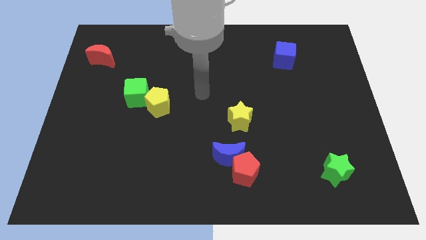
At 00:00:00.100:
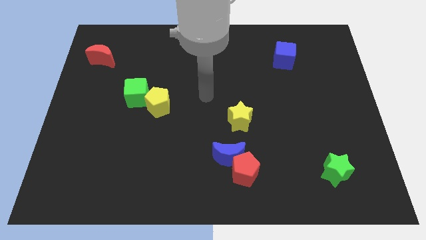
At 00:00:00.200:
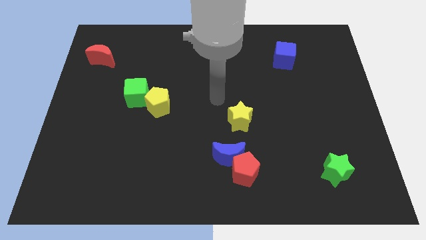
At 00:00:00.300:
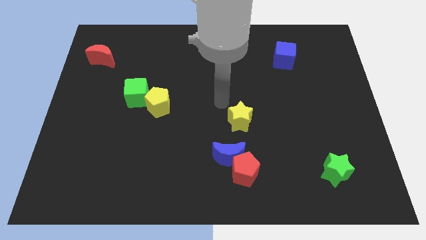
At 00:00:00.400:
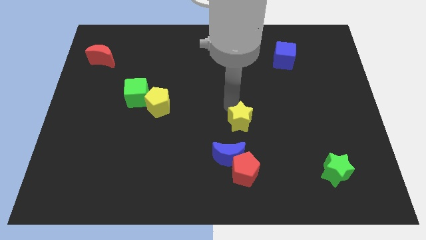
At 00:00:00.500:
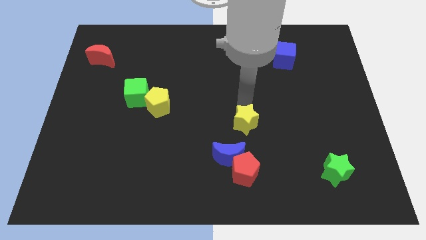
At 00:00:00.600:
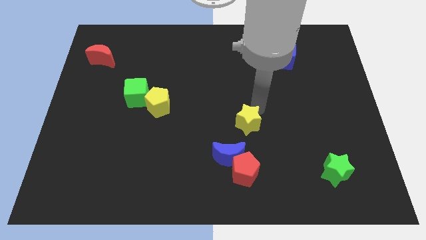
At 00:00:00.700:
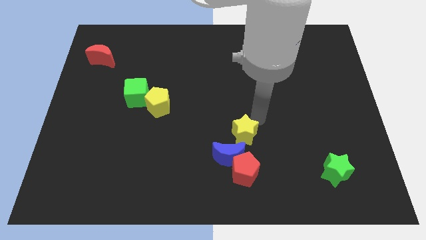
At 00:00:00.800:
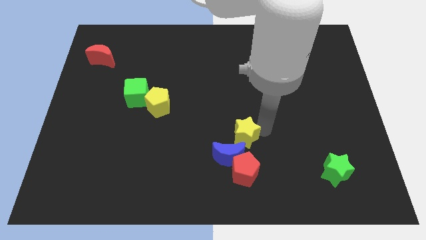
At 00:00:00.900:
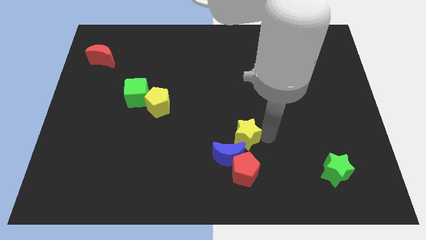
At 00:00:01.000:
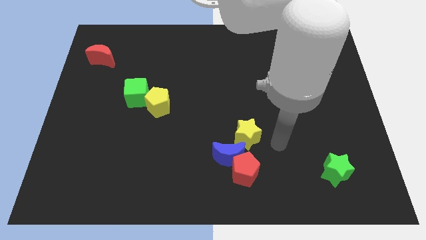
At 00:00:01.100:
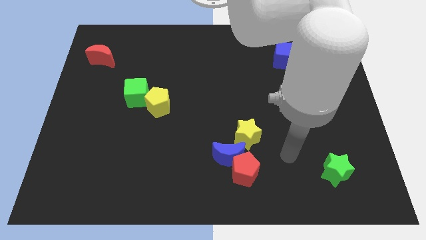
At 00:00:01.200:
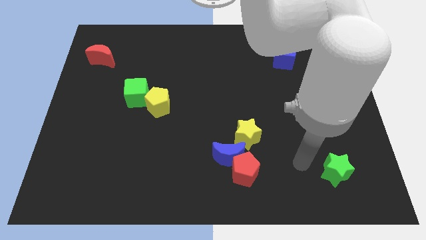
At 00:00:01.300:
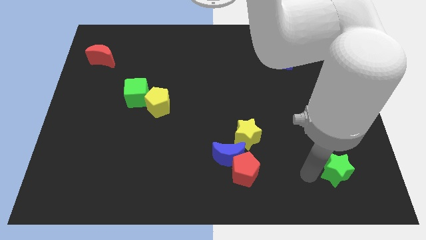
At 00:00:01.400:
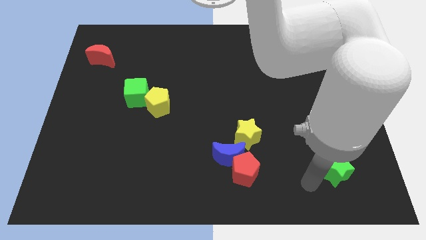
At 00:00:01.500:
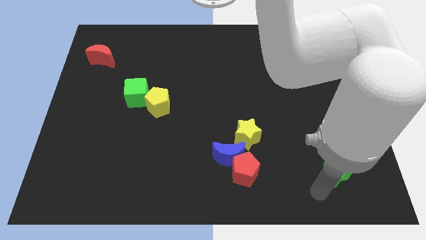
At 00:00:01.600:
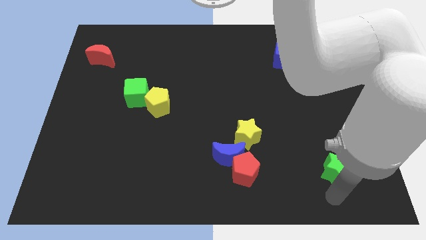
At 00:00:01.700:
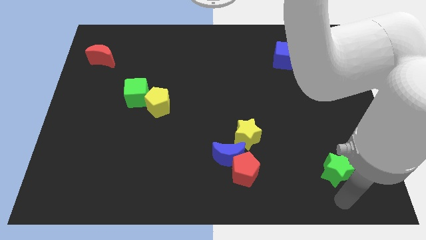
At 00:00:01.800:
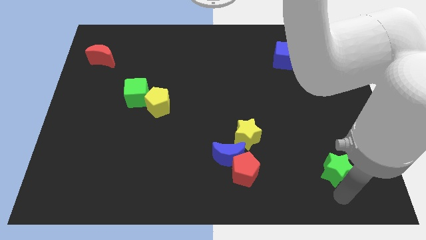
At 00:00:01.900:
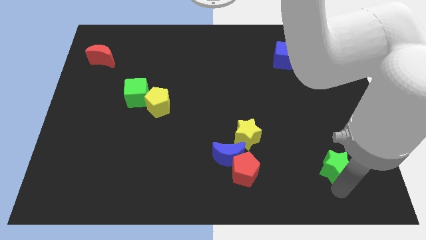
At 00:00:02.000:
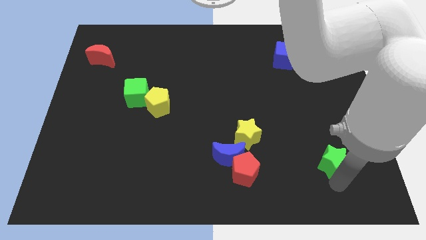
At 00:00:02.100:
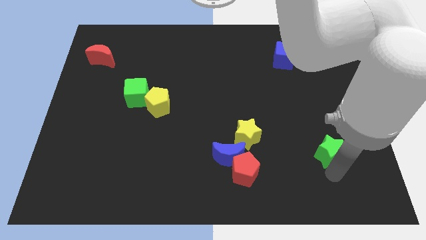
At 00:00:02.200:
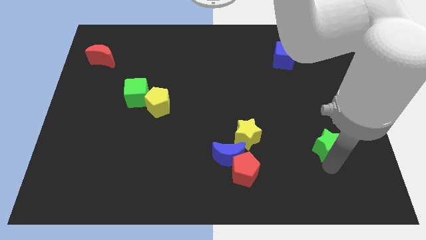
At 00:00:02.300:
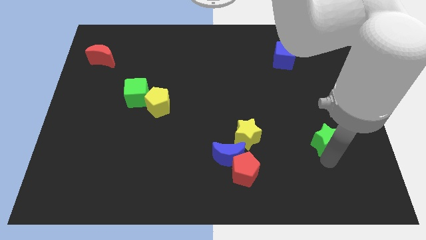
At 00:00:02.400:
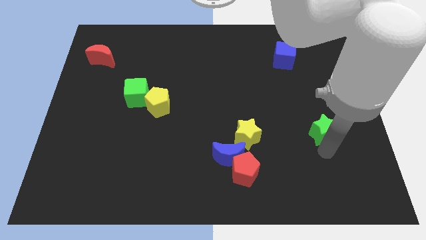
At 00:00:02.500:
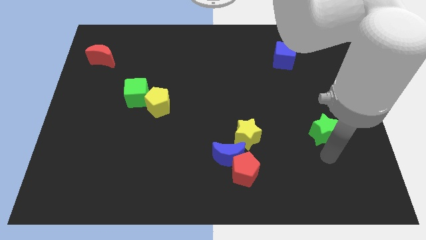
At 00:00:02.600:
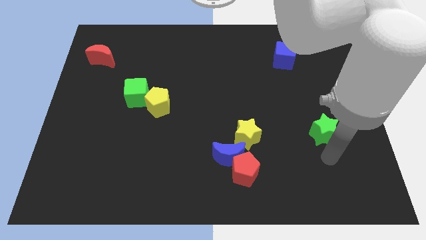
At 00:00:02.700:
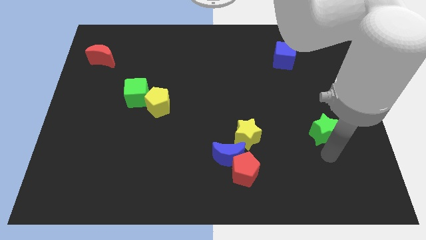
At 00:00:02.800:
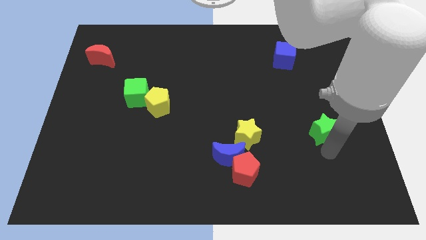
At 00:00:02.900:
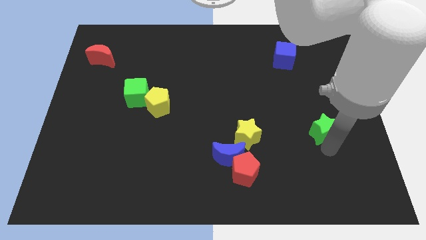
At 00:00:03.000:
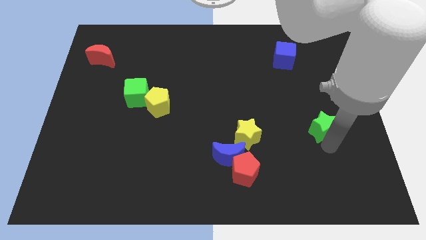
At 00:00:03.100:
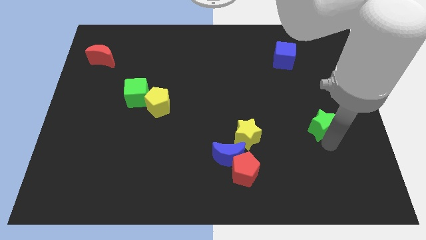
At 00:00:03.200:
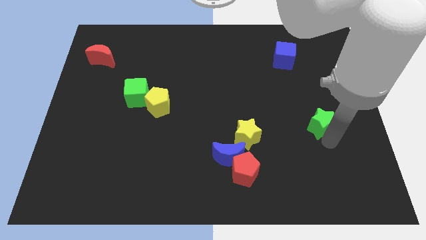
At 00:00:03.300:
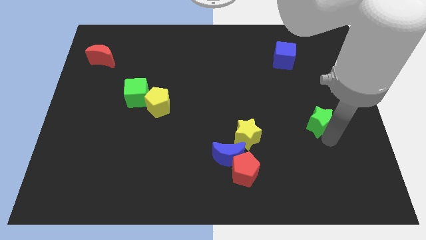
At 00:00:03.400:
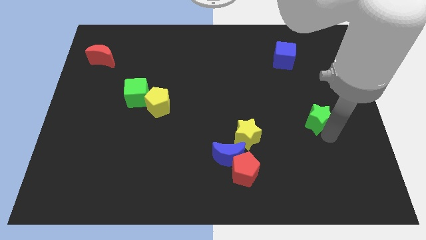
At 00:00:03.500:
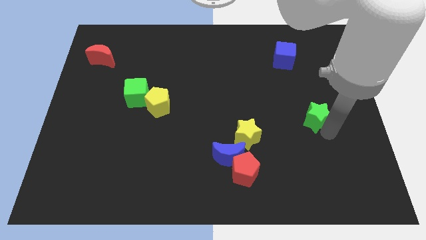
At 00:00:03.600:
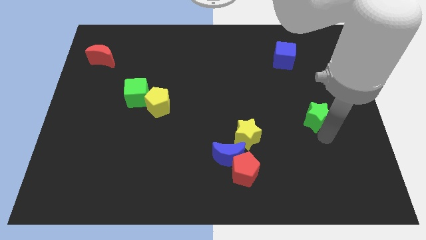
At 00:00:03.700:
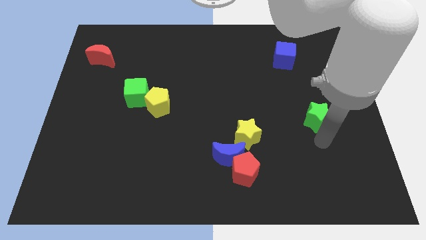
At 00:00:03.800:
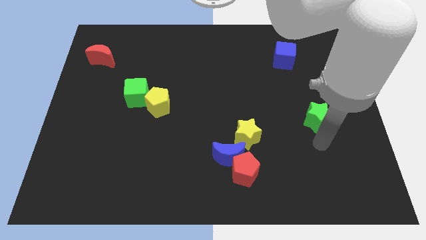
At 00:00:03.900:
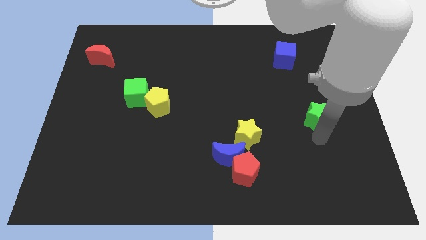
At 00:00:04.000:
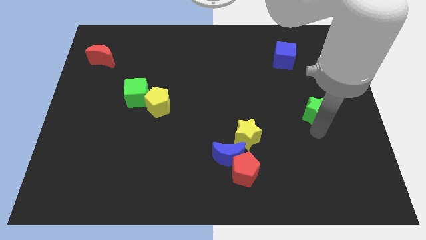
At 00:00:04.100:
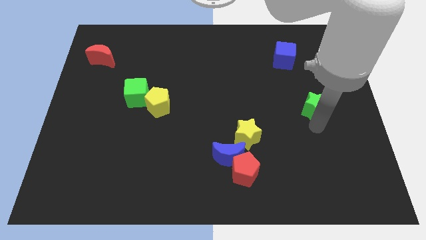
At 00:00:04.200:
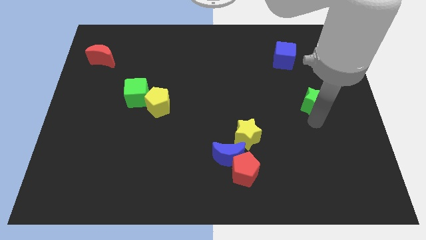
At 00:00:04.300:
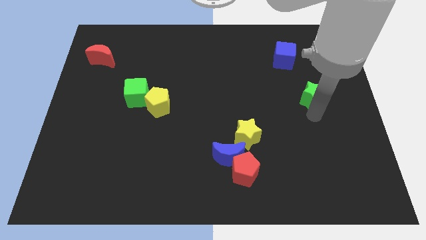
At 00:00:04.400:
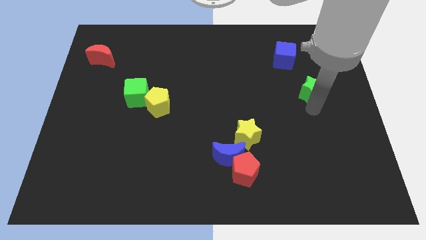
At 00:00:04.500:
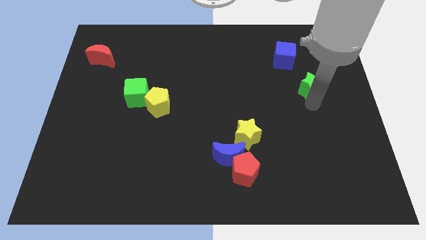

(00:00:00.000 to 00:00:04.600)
move the green star diagonally down and to the right of the blue cube

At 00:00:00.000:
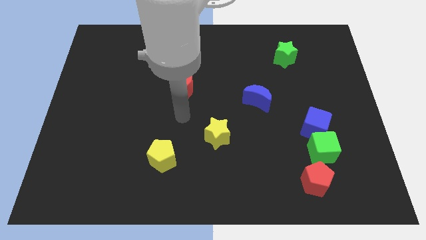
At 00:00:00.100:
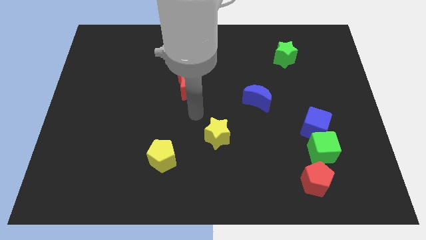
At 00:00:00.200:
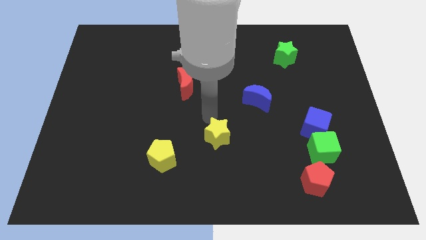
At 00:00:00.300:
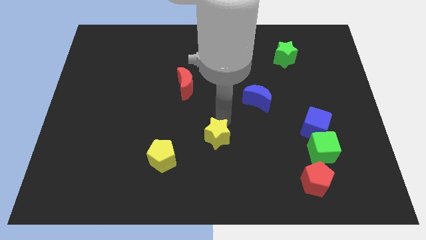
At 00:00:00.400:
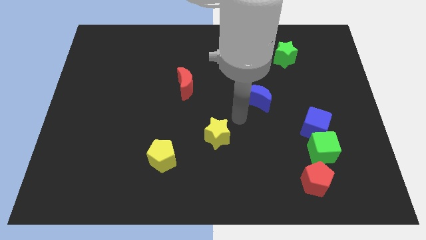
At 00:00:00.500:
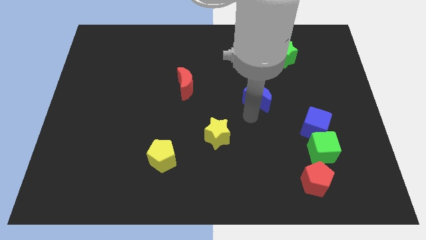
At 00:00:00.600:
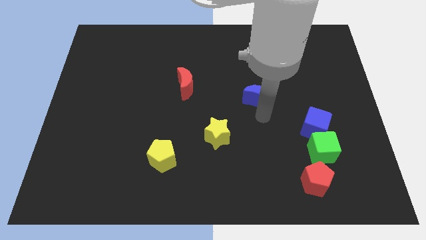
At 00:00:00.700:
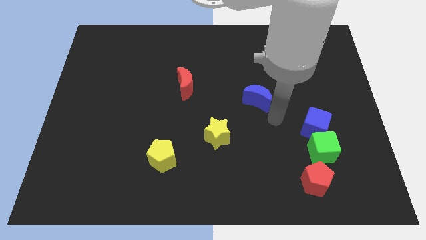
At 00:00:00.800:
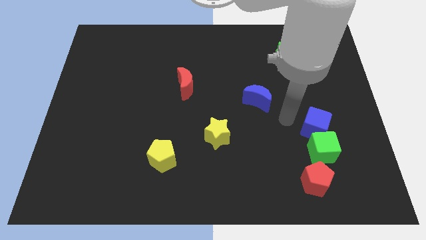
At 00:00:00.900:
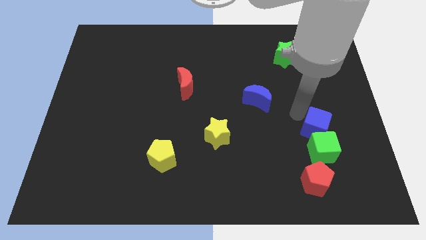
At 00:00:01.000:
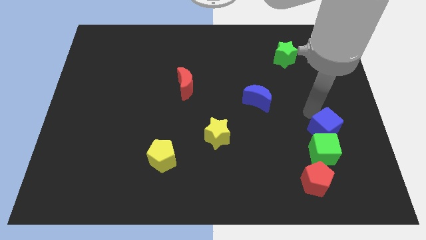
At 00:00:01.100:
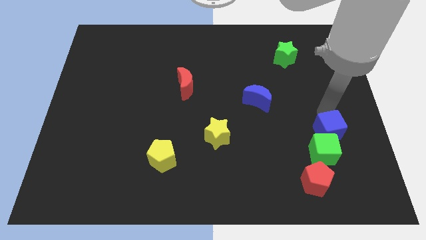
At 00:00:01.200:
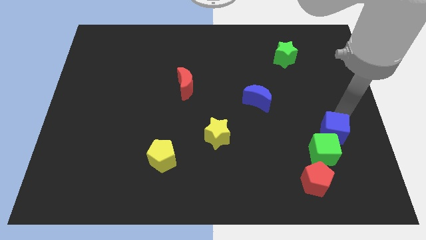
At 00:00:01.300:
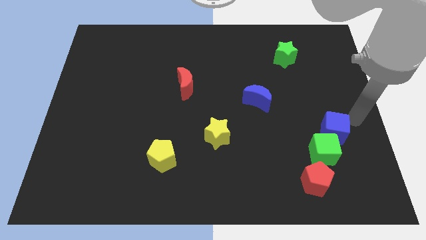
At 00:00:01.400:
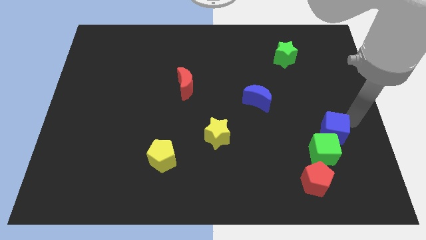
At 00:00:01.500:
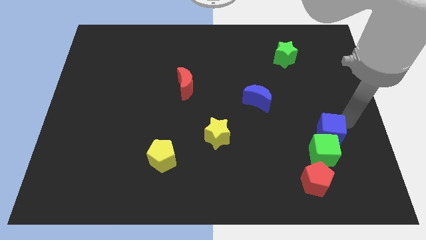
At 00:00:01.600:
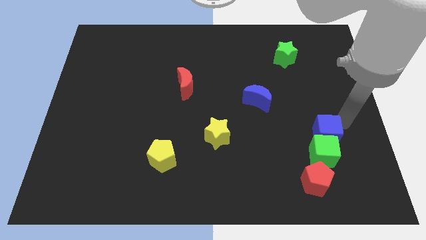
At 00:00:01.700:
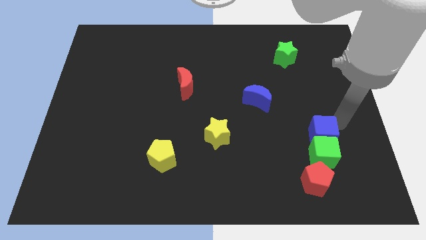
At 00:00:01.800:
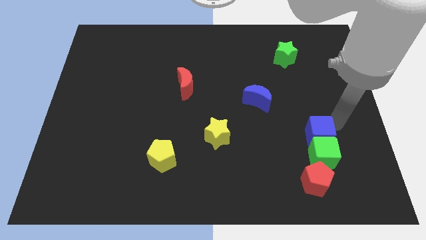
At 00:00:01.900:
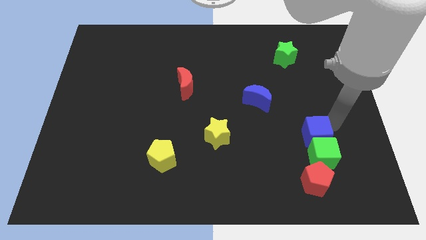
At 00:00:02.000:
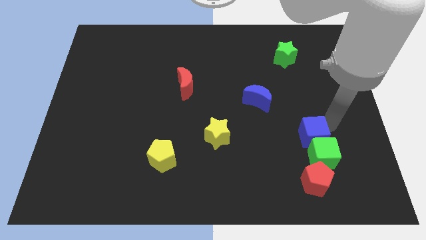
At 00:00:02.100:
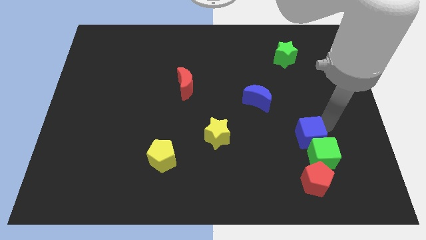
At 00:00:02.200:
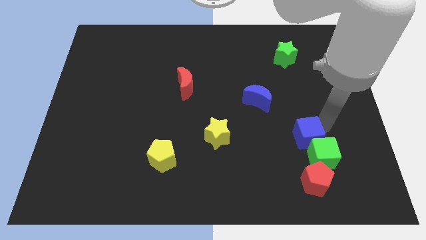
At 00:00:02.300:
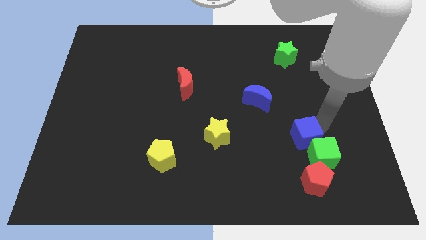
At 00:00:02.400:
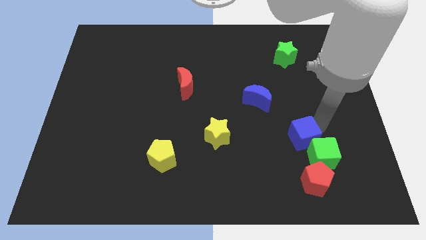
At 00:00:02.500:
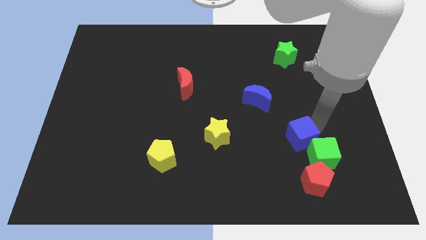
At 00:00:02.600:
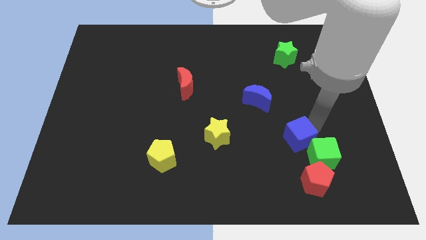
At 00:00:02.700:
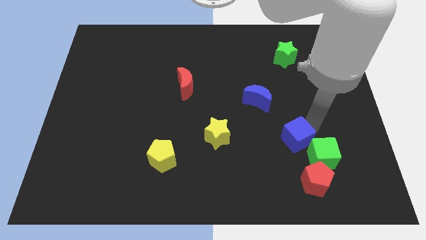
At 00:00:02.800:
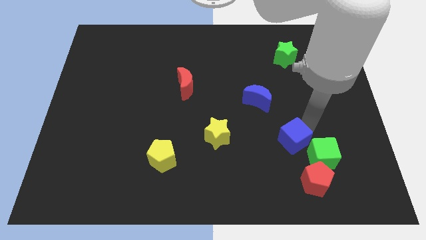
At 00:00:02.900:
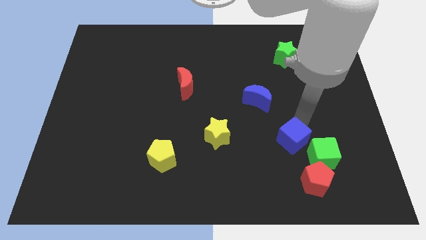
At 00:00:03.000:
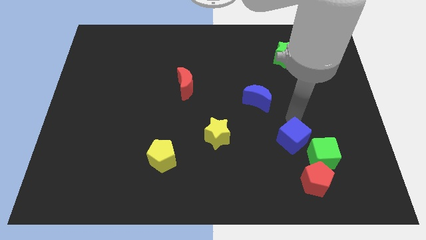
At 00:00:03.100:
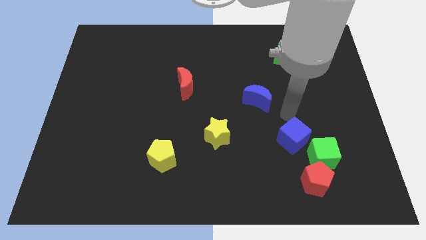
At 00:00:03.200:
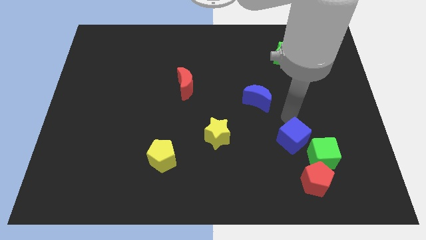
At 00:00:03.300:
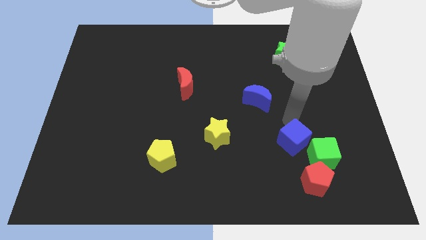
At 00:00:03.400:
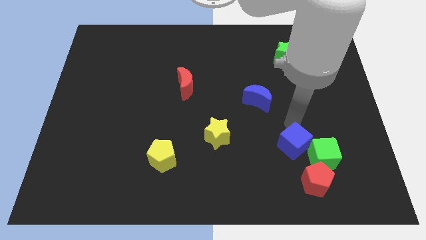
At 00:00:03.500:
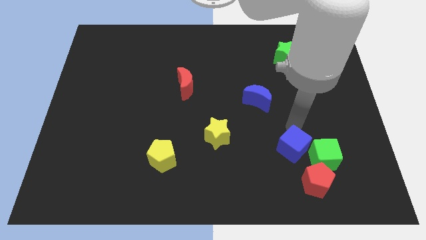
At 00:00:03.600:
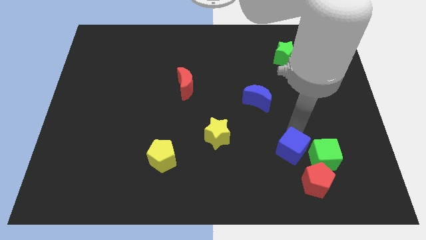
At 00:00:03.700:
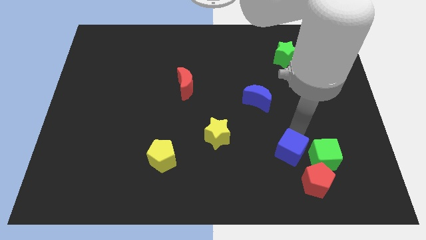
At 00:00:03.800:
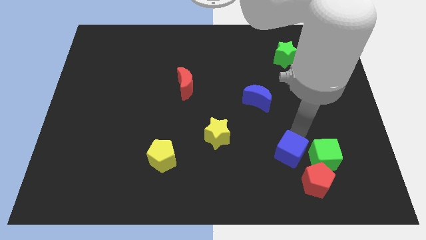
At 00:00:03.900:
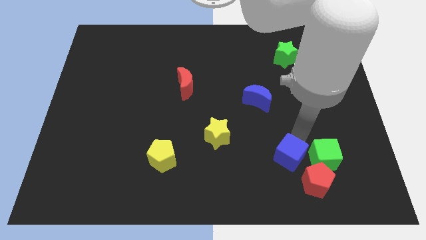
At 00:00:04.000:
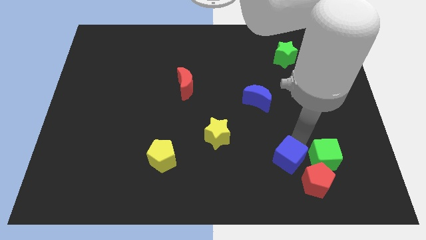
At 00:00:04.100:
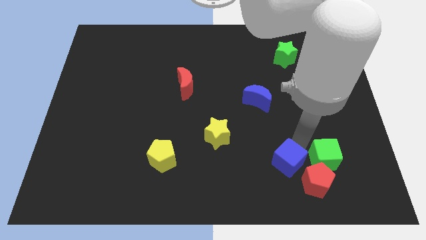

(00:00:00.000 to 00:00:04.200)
put the blue cube to the bottom left side of the green cube
